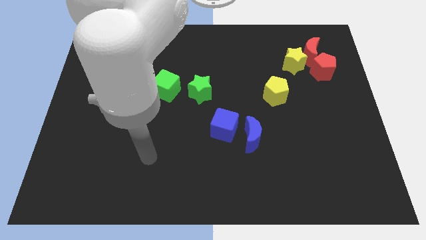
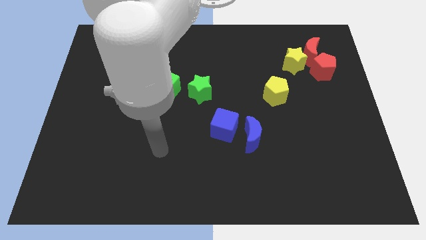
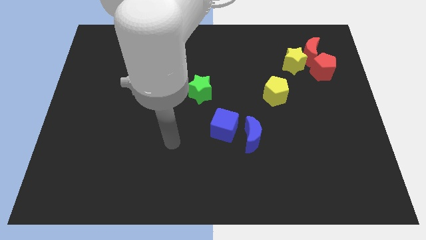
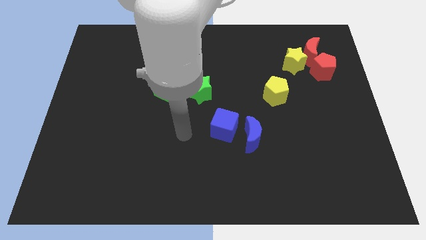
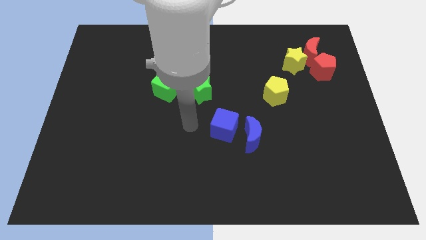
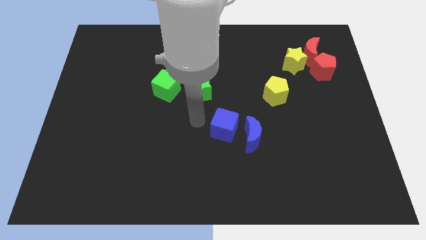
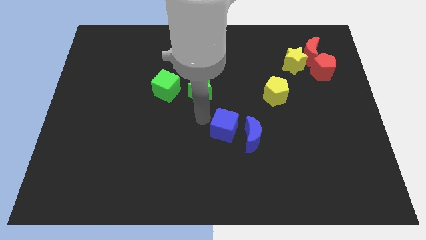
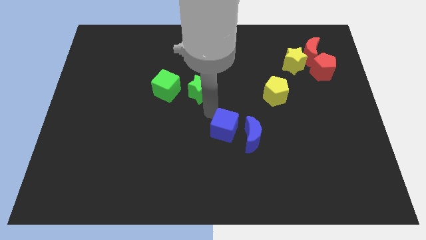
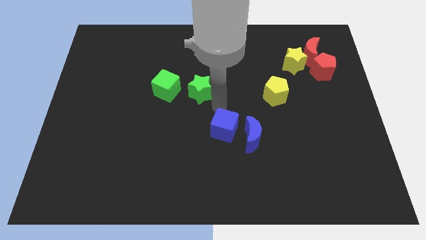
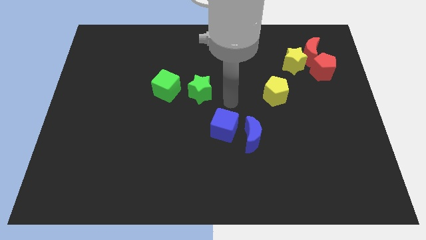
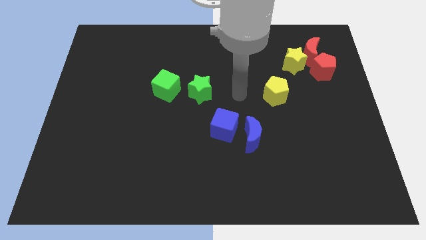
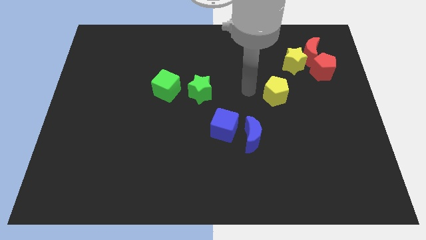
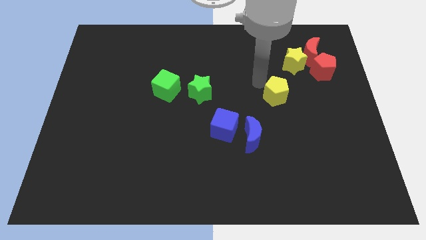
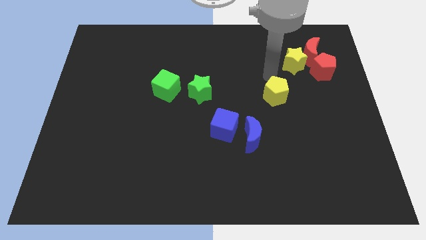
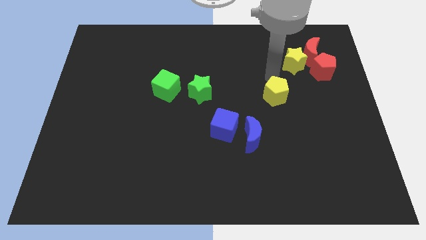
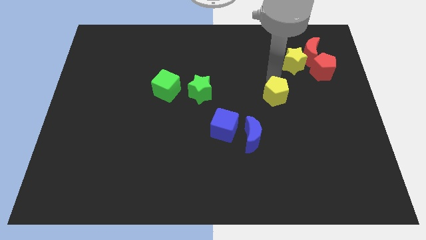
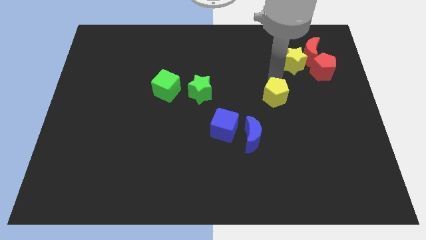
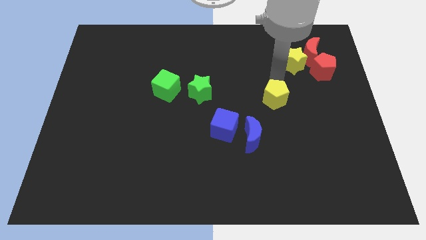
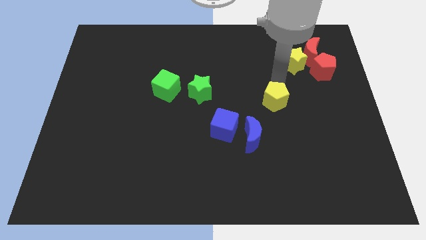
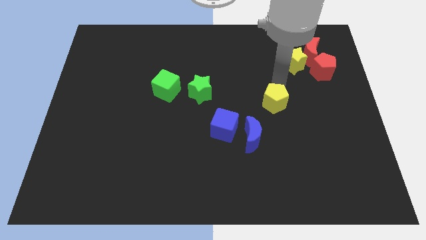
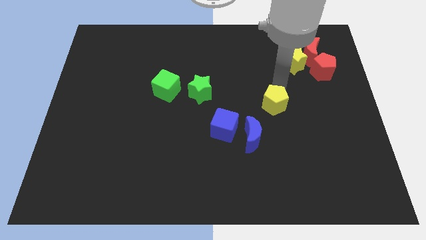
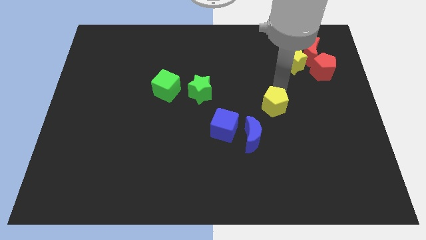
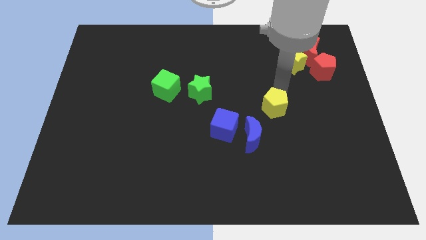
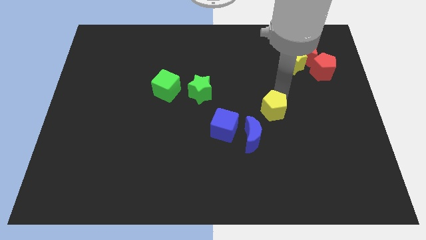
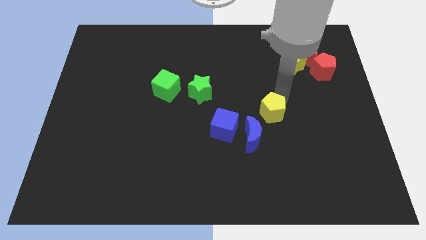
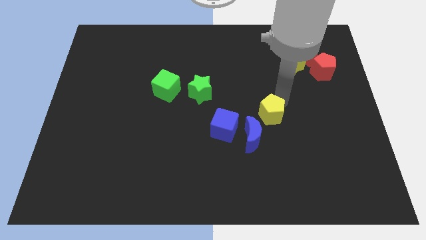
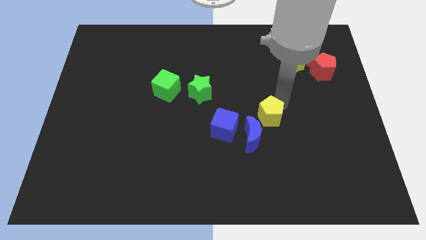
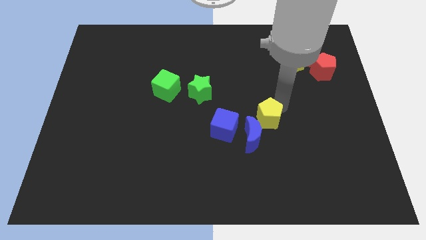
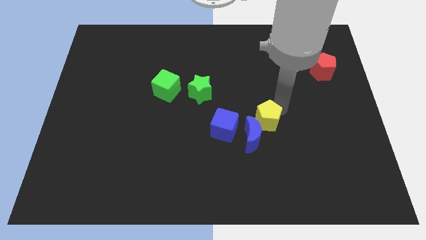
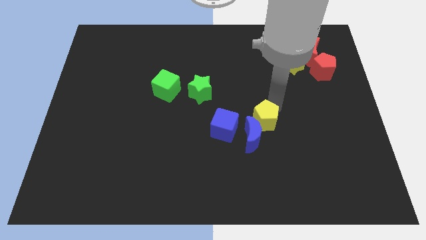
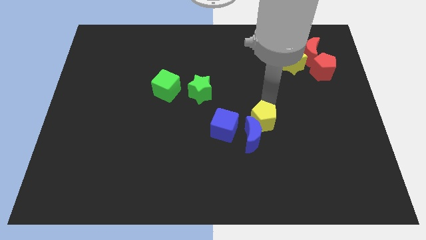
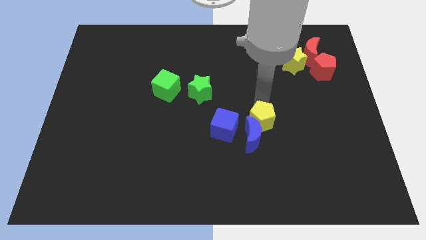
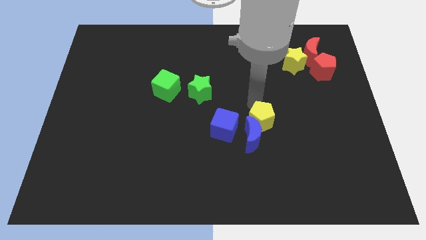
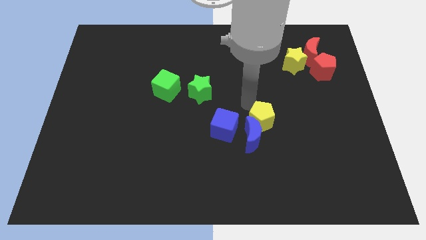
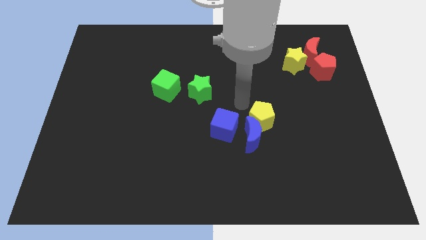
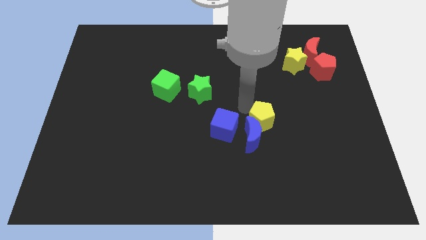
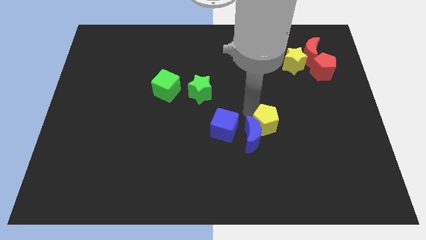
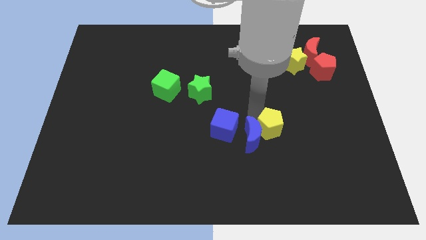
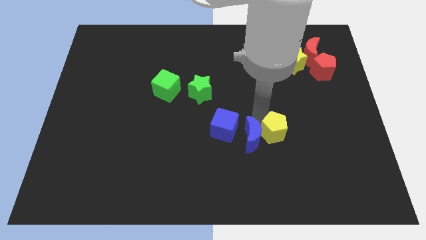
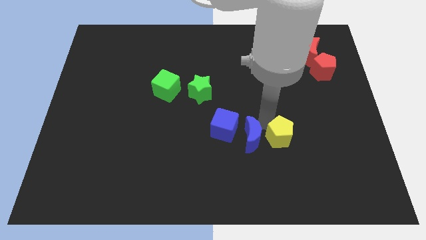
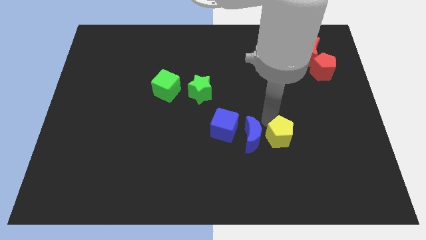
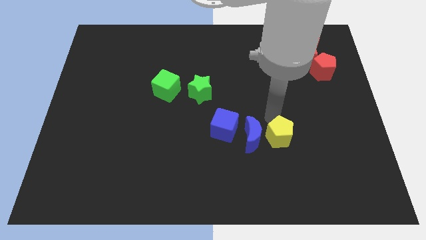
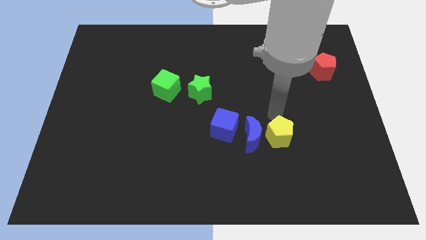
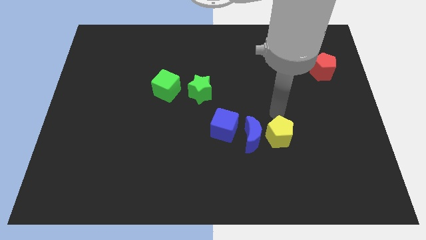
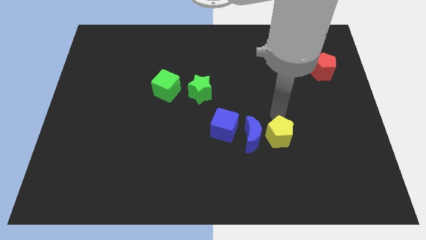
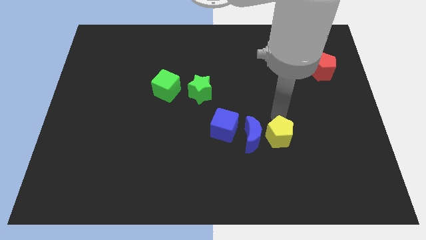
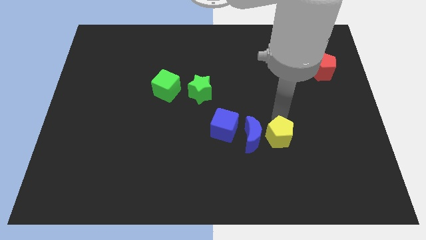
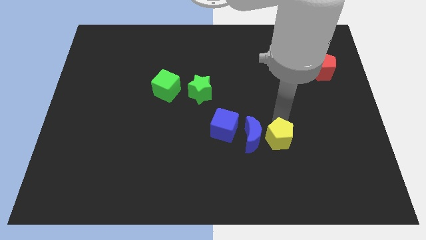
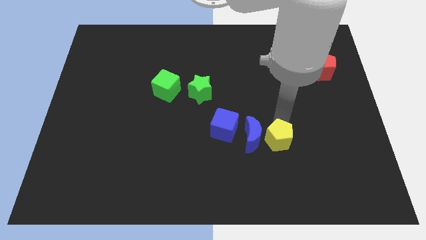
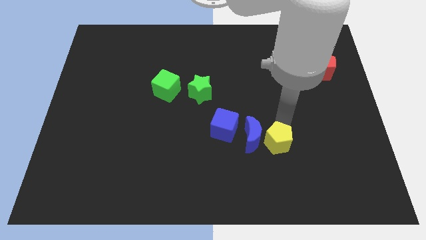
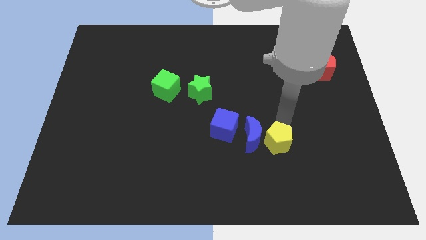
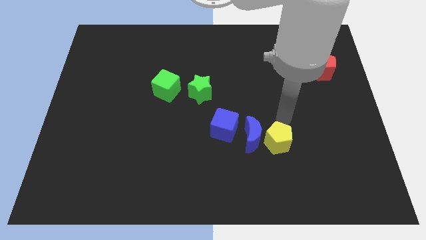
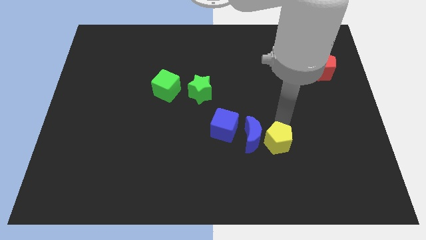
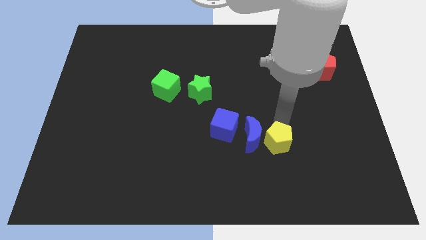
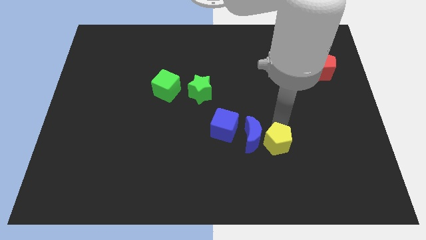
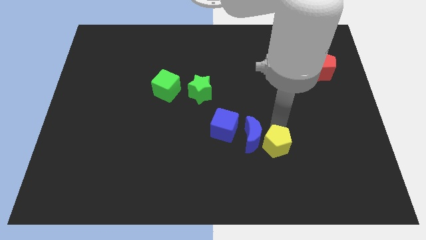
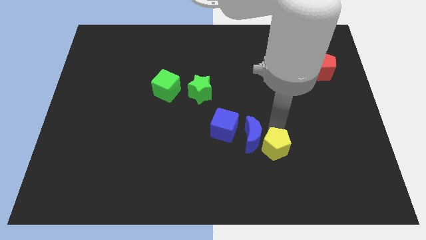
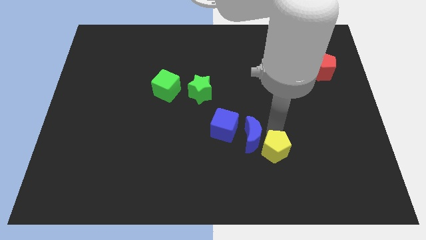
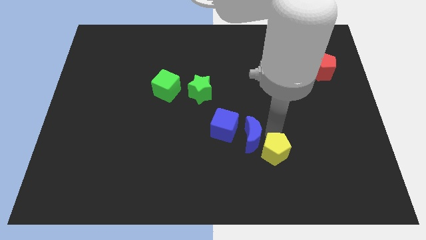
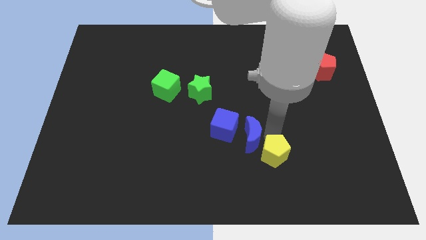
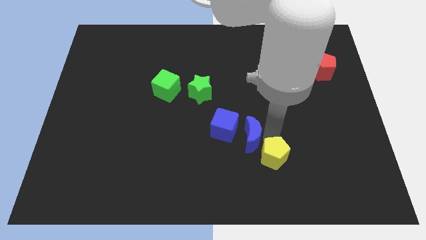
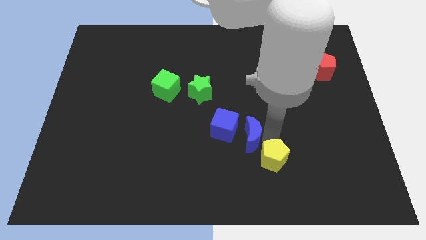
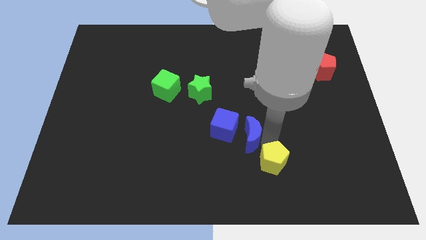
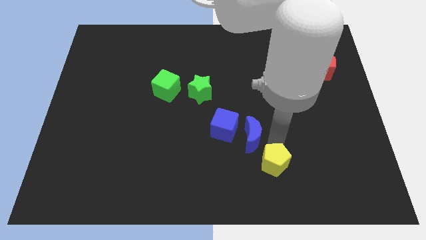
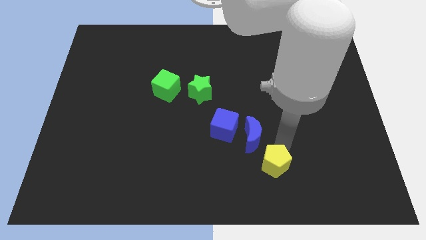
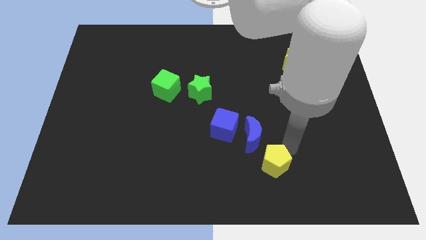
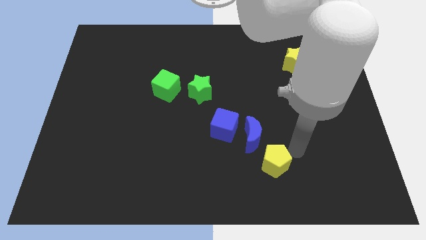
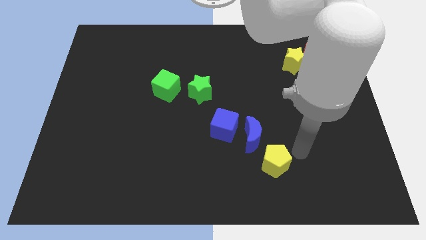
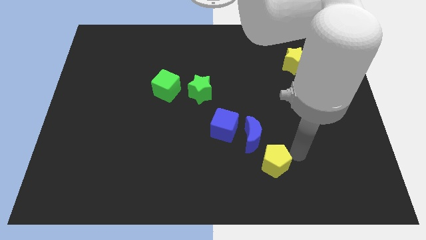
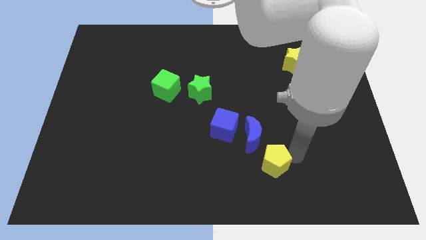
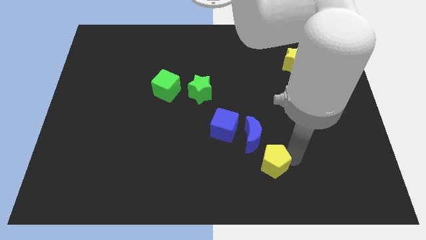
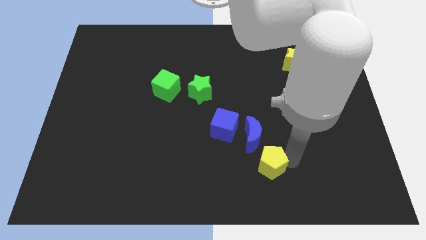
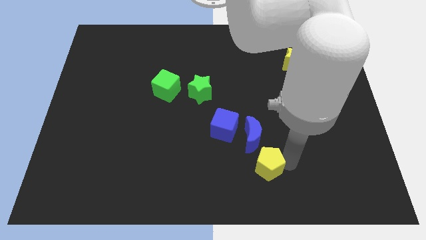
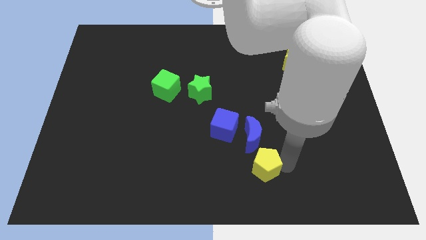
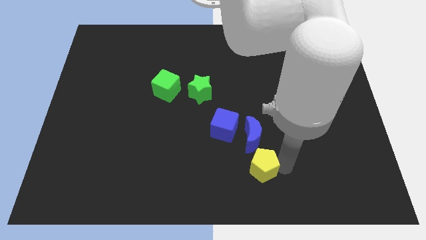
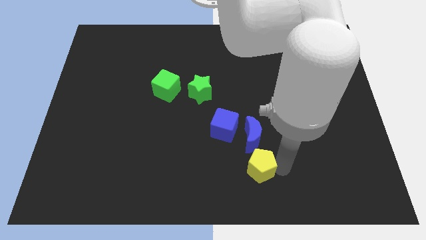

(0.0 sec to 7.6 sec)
slide the yellow pentagon to the bottom
